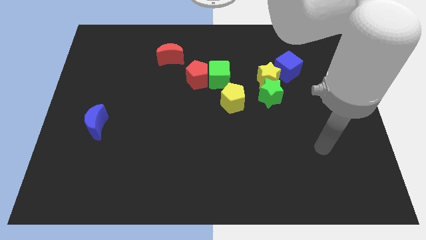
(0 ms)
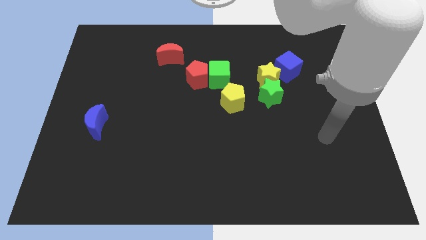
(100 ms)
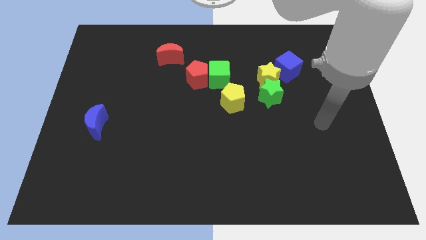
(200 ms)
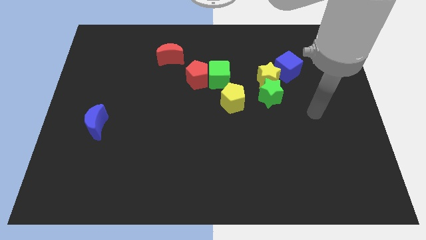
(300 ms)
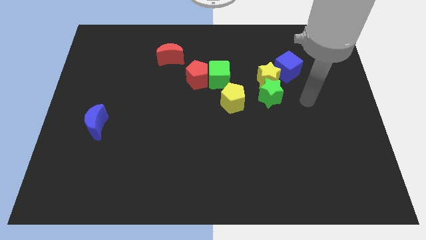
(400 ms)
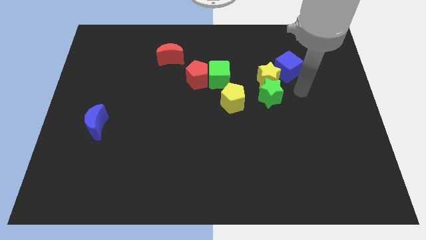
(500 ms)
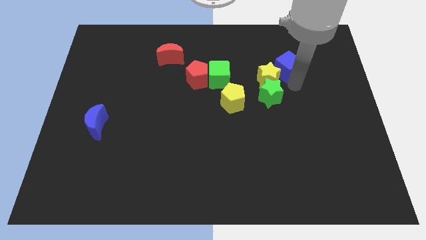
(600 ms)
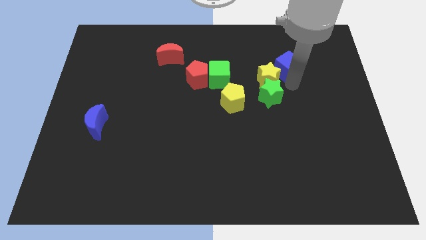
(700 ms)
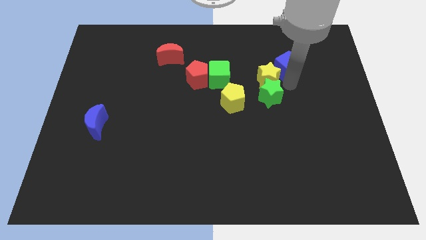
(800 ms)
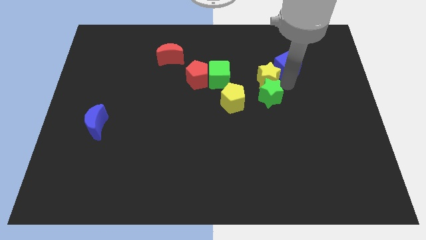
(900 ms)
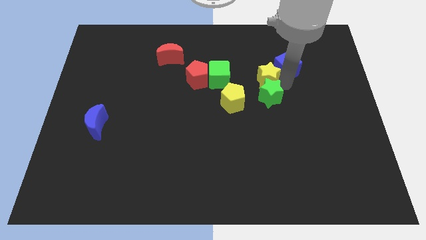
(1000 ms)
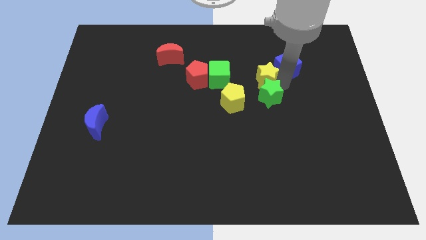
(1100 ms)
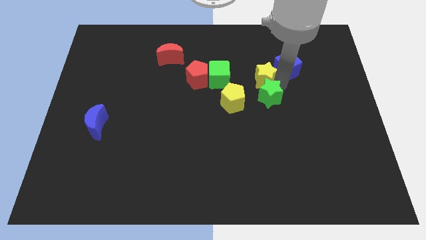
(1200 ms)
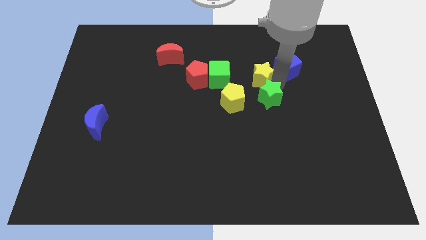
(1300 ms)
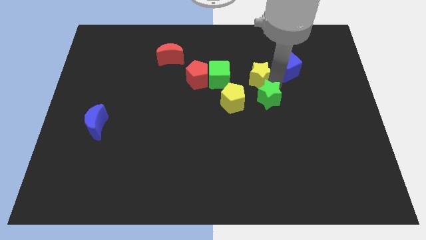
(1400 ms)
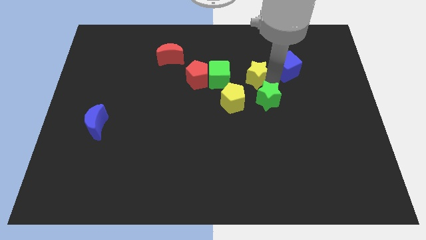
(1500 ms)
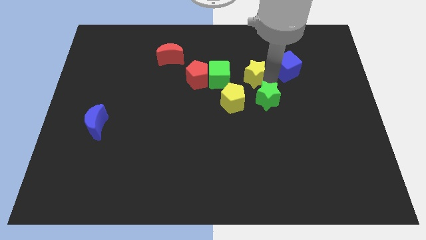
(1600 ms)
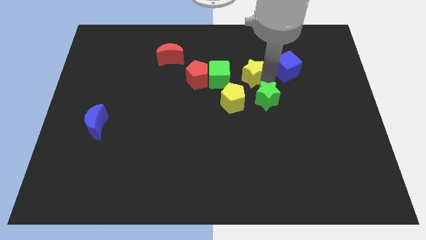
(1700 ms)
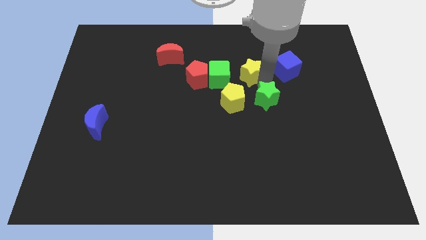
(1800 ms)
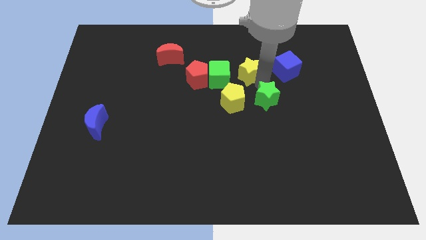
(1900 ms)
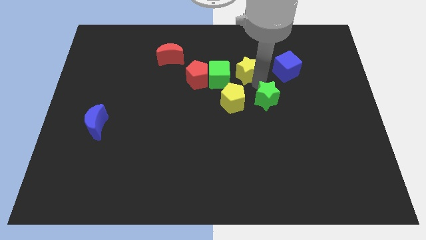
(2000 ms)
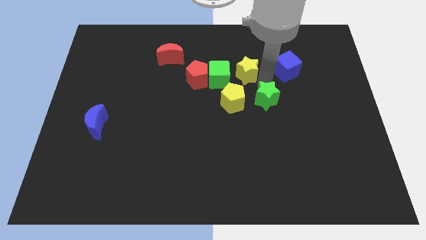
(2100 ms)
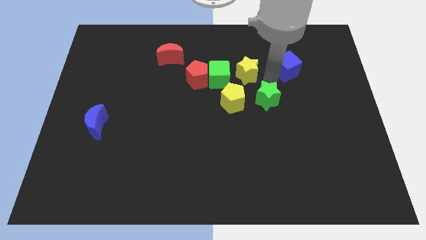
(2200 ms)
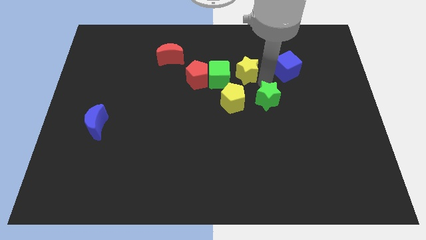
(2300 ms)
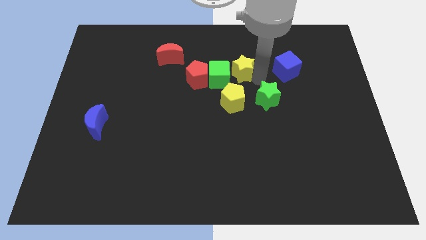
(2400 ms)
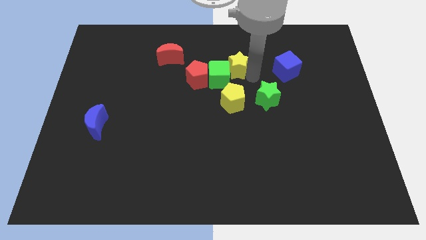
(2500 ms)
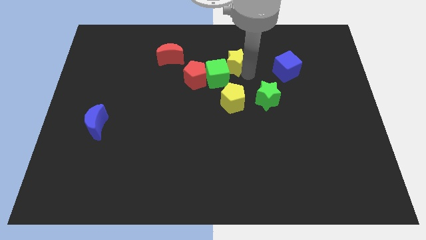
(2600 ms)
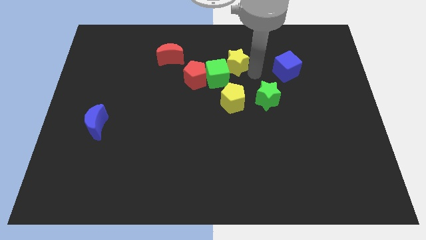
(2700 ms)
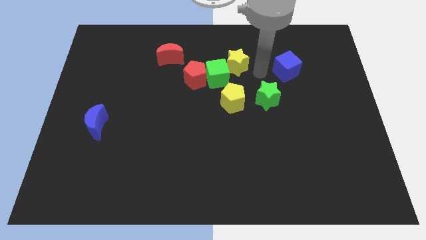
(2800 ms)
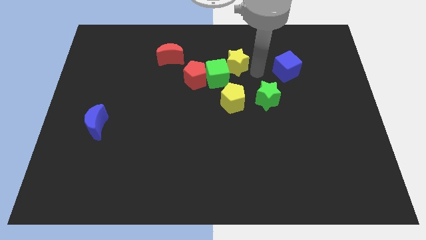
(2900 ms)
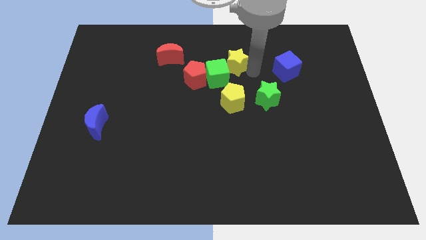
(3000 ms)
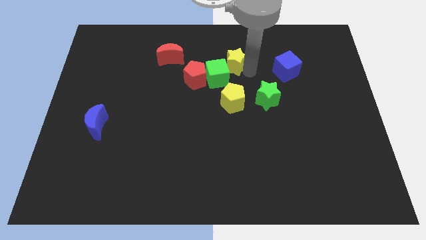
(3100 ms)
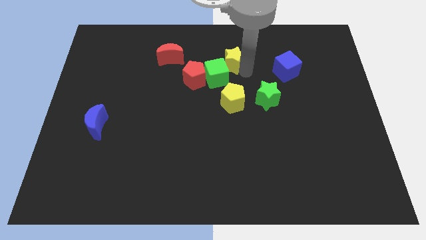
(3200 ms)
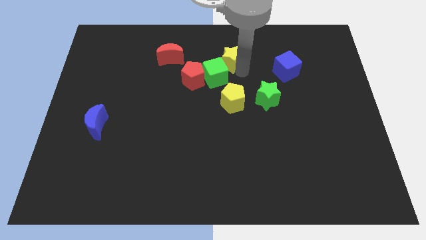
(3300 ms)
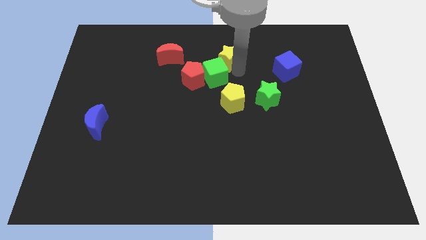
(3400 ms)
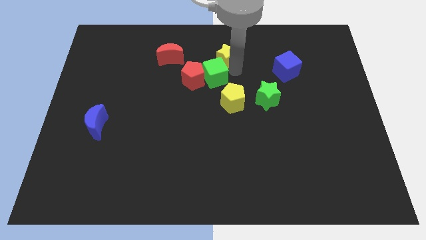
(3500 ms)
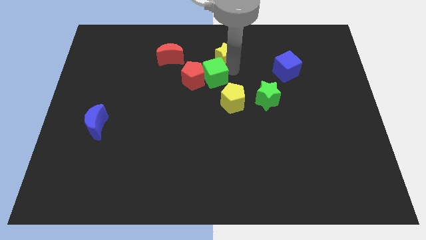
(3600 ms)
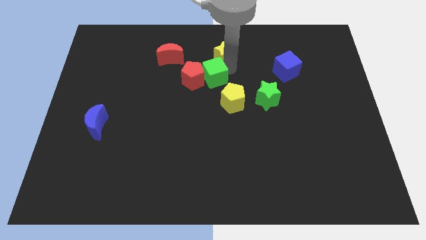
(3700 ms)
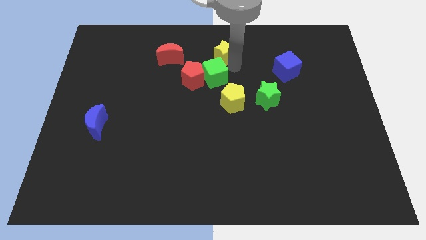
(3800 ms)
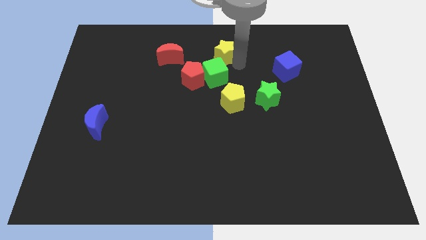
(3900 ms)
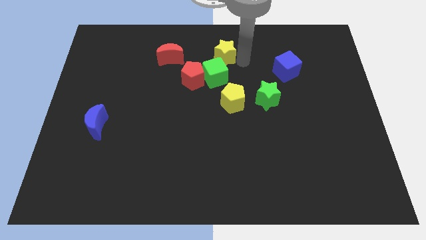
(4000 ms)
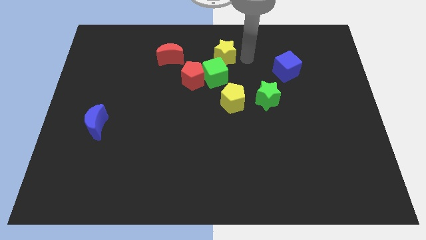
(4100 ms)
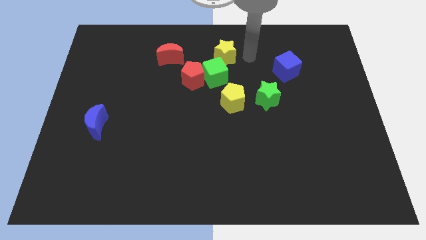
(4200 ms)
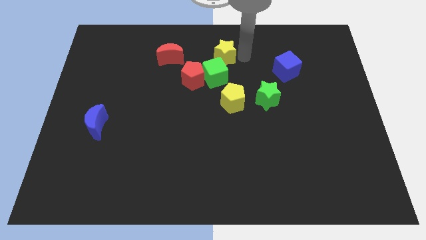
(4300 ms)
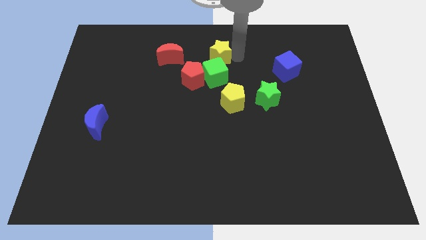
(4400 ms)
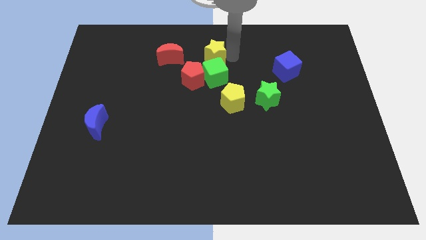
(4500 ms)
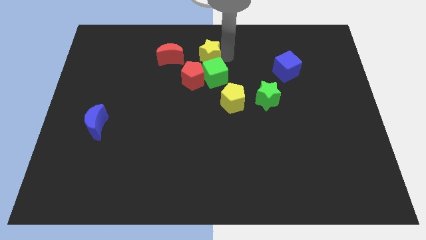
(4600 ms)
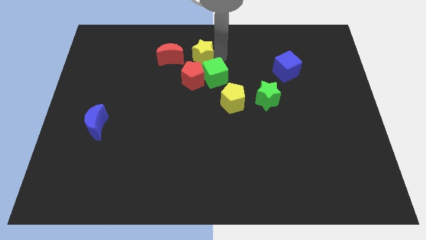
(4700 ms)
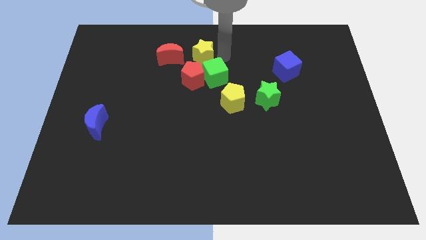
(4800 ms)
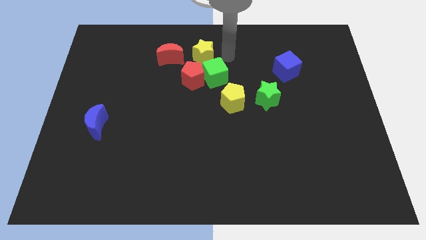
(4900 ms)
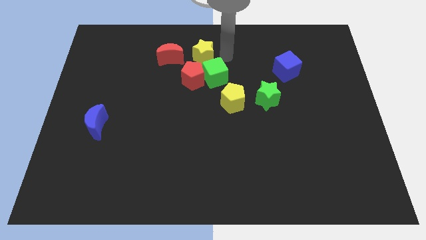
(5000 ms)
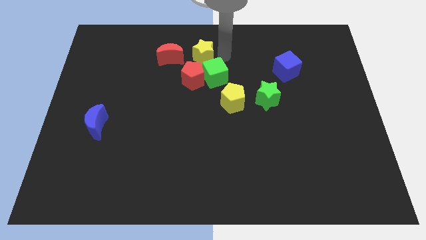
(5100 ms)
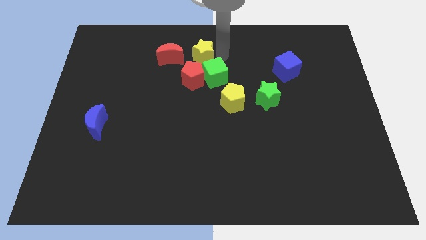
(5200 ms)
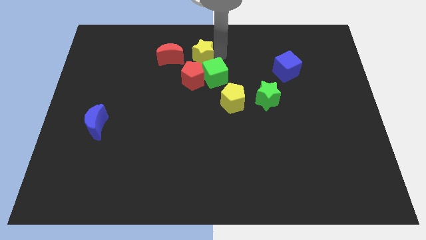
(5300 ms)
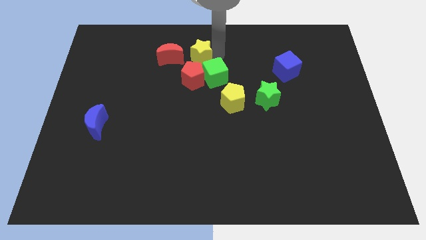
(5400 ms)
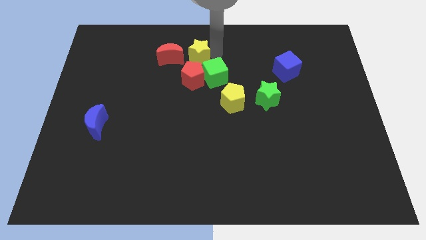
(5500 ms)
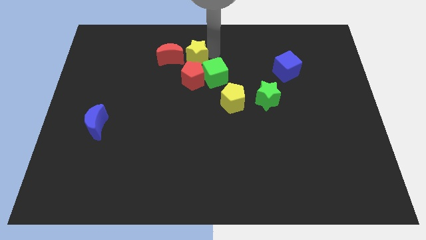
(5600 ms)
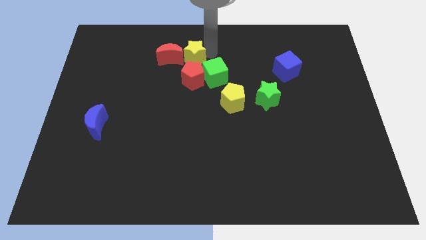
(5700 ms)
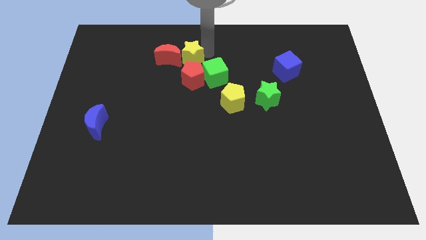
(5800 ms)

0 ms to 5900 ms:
slide the yellow star close to the red moon
